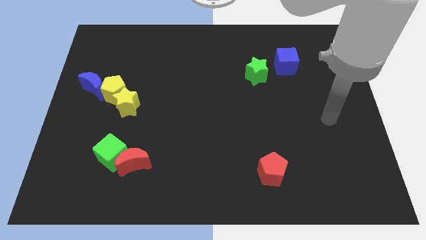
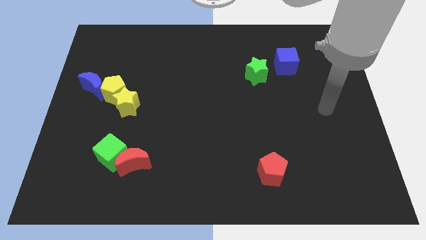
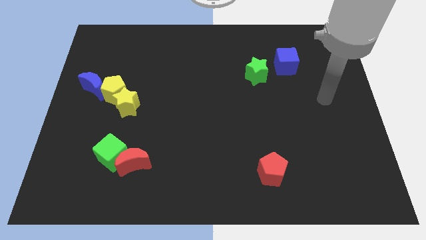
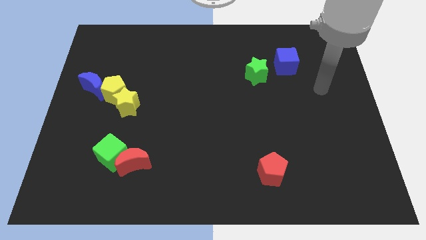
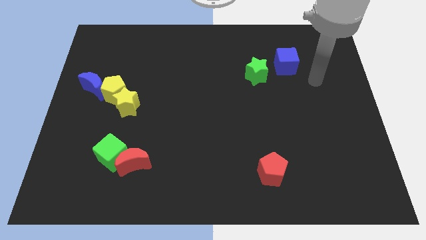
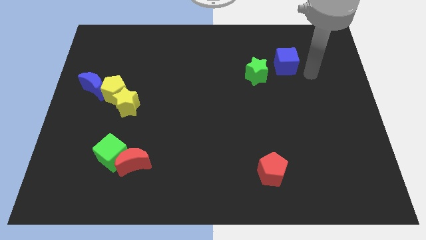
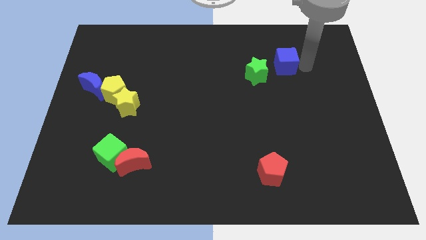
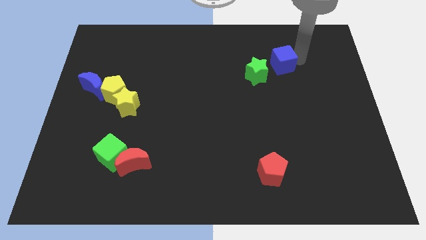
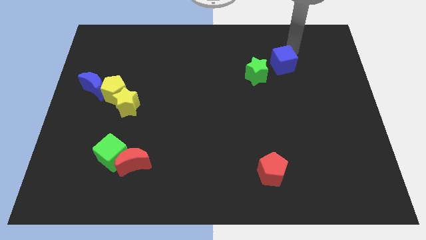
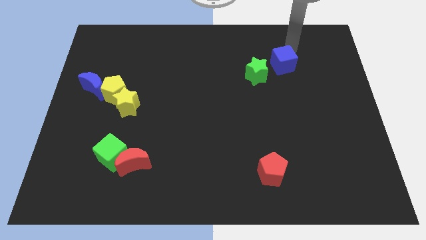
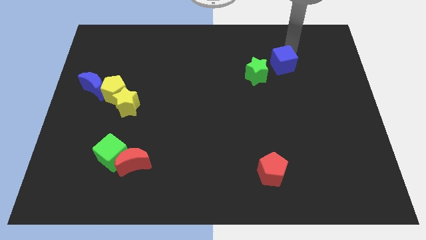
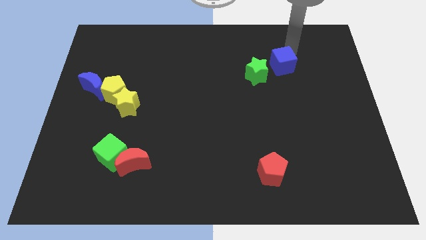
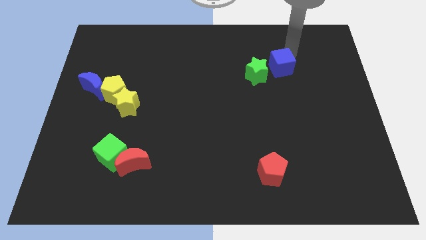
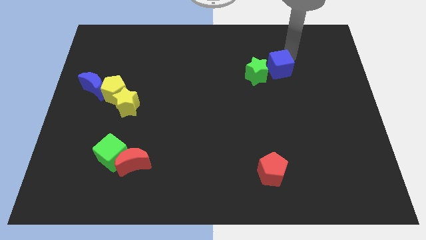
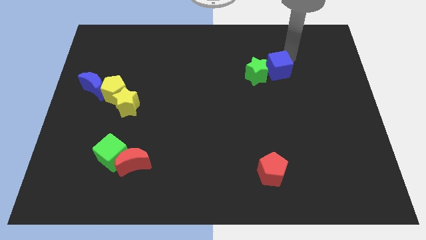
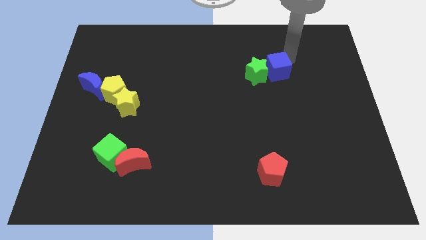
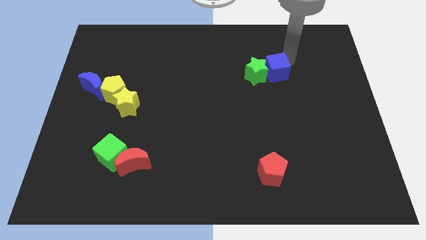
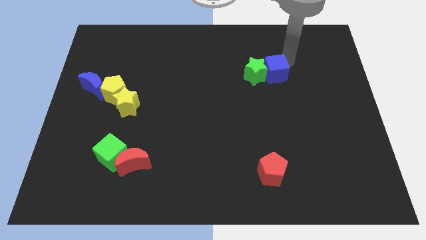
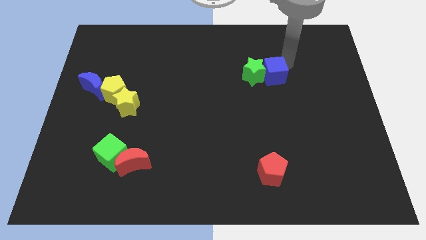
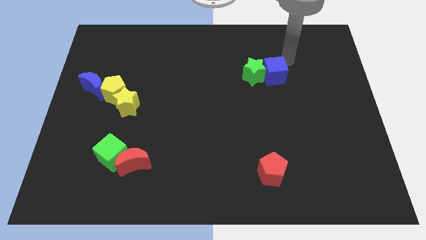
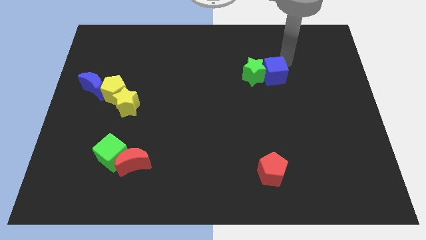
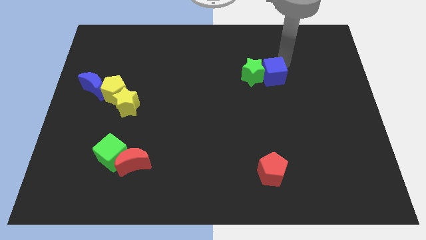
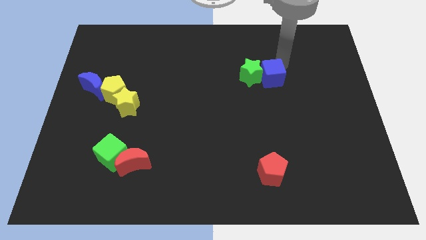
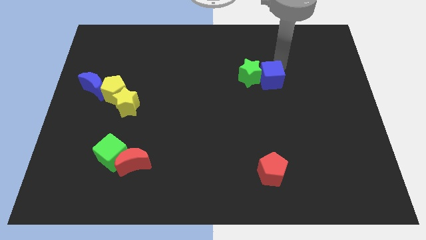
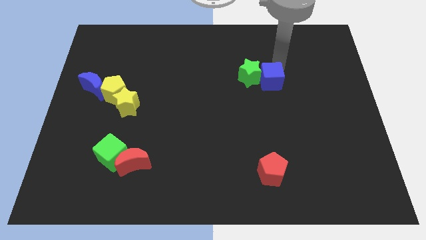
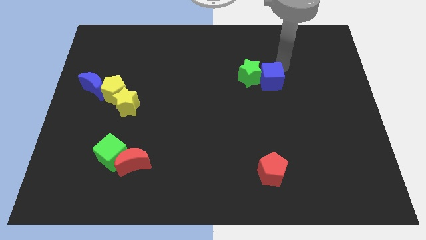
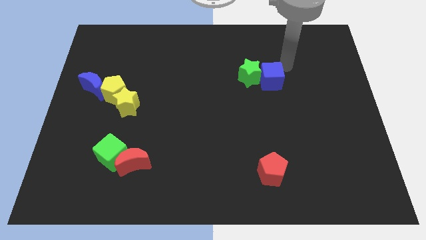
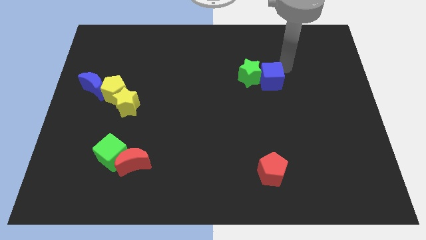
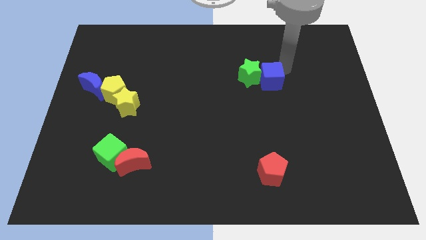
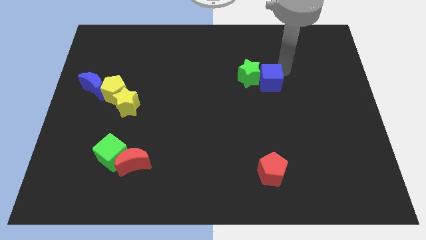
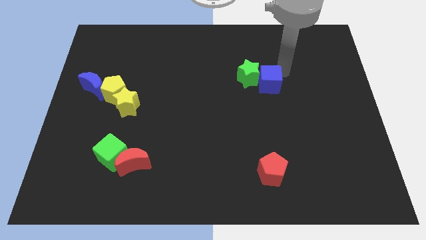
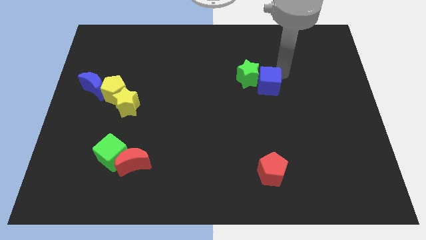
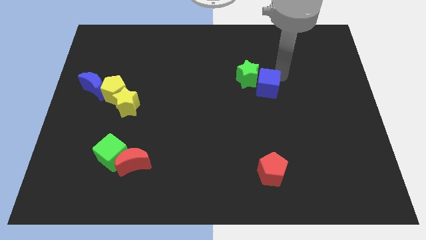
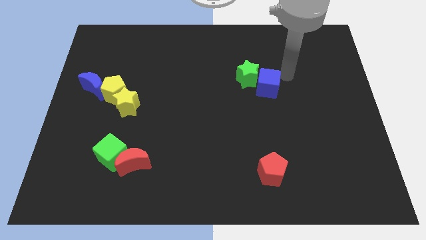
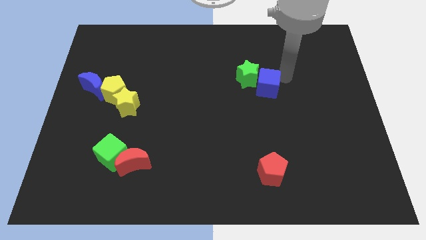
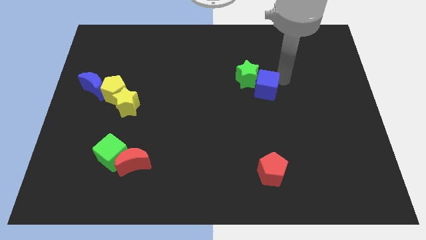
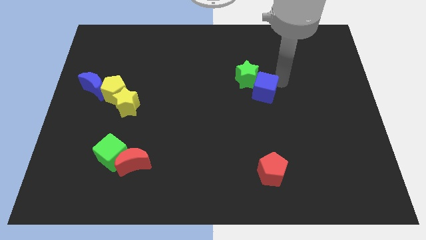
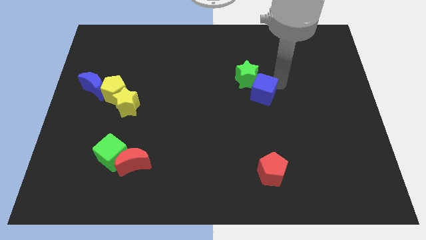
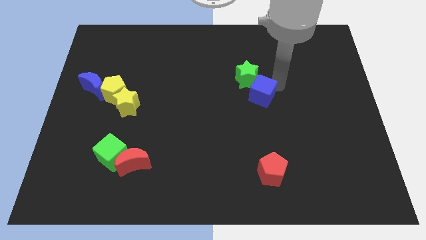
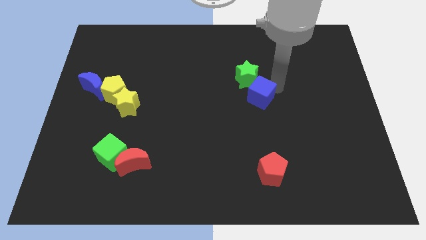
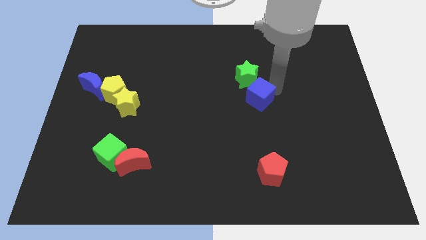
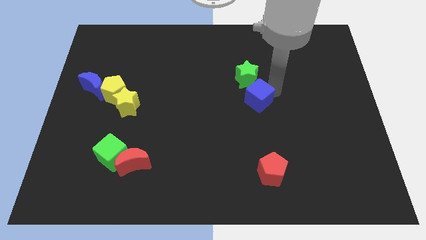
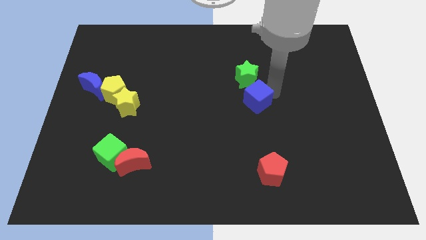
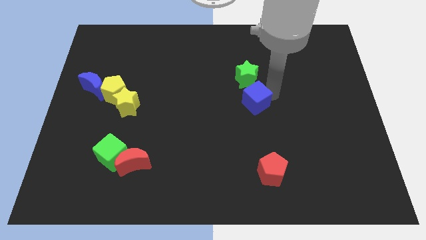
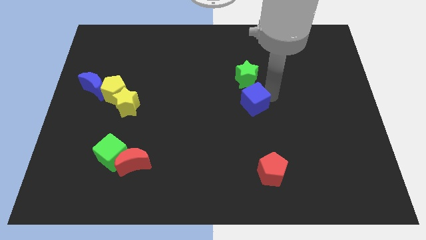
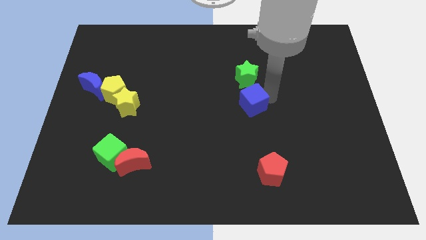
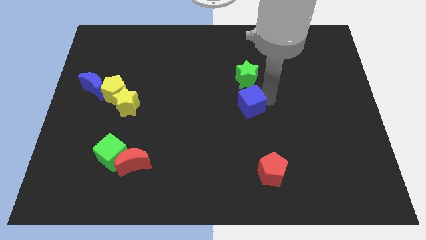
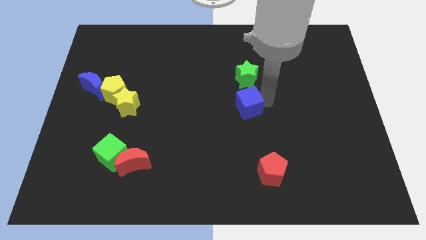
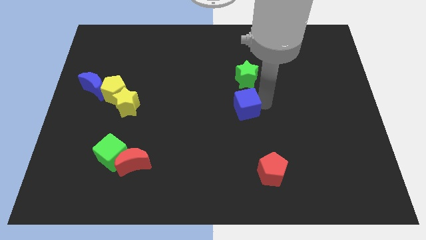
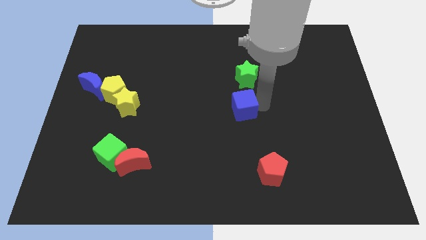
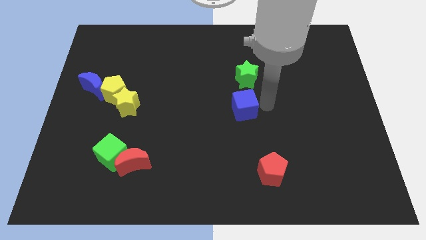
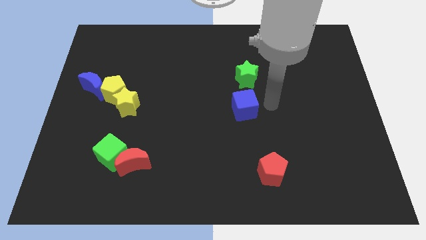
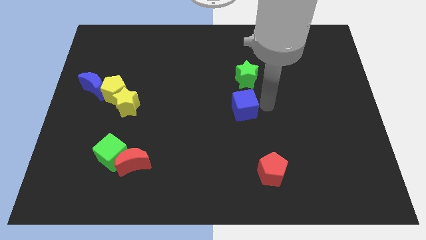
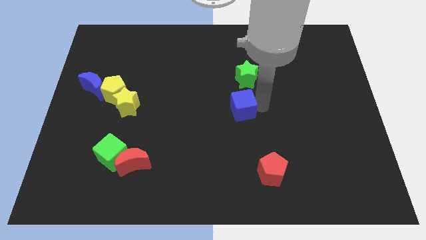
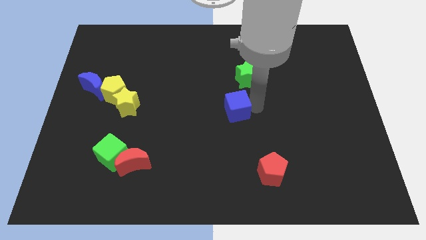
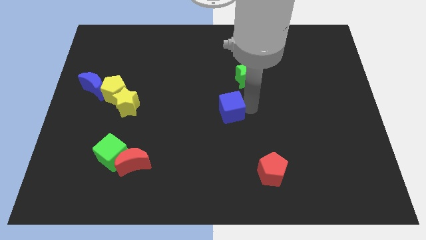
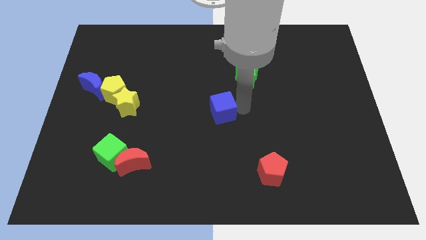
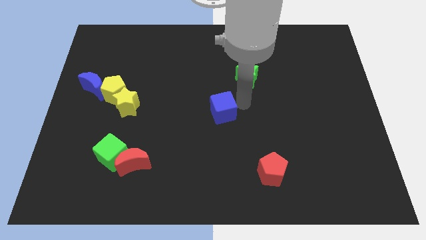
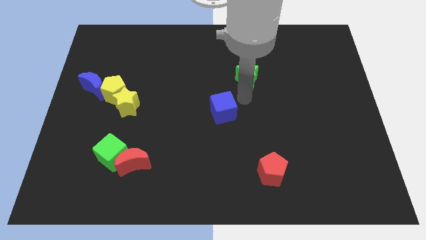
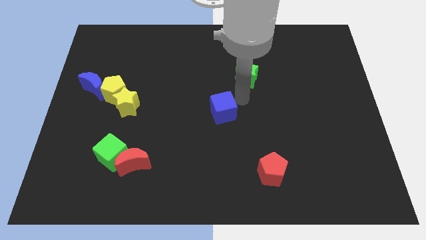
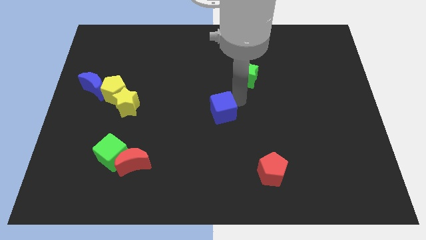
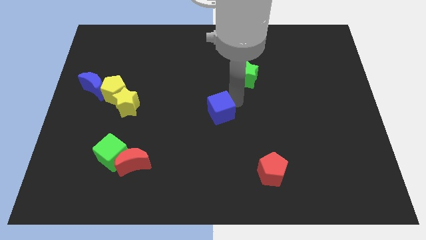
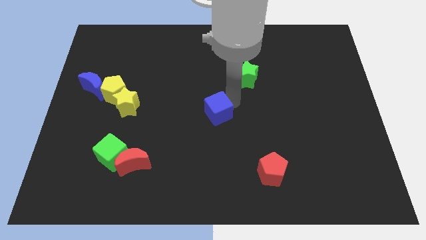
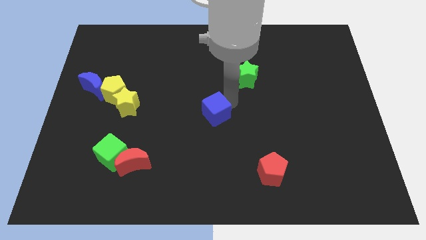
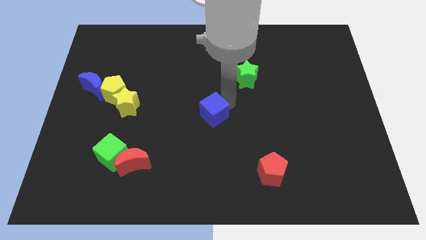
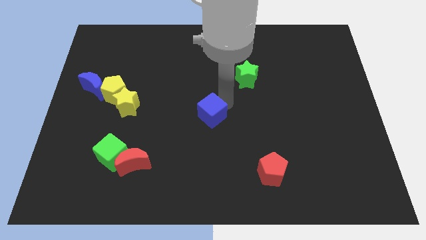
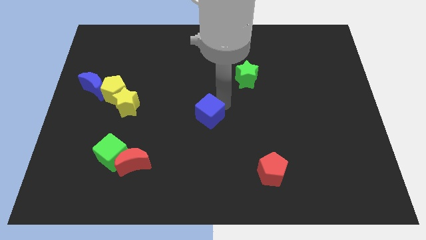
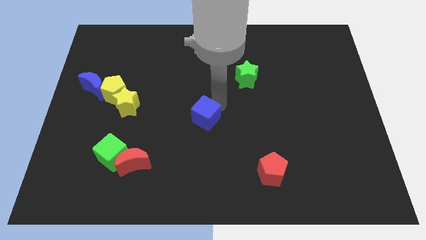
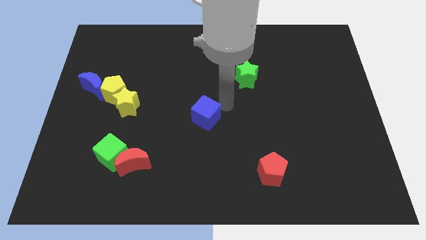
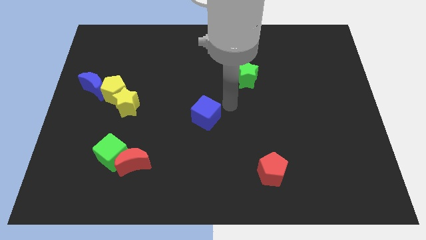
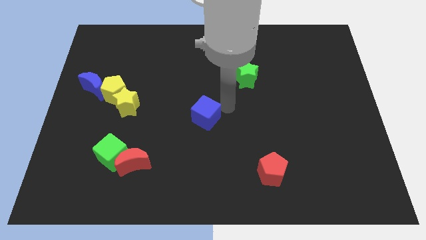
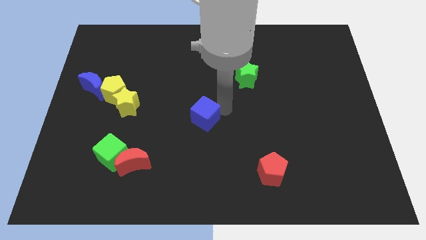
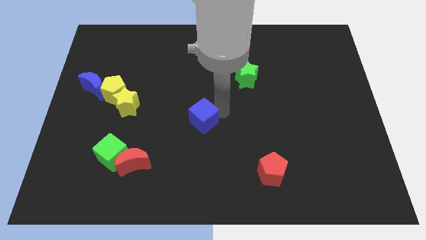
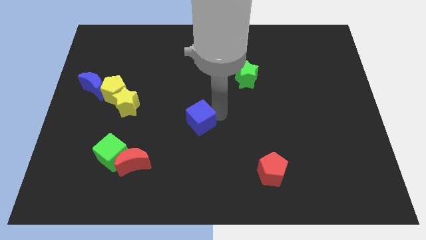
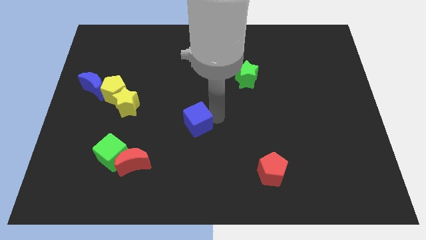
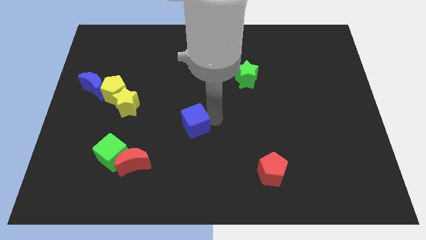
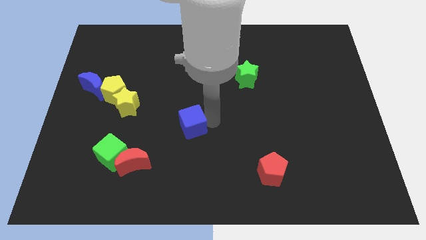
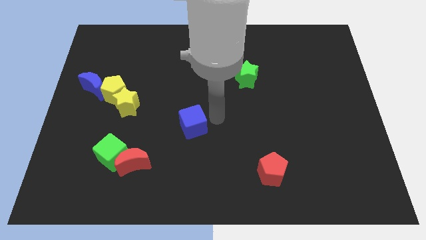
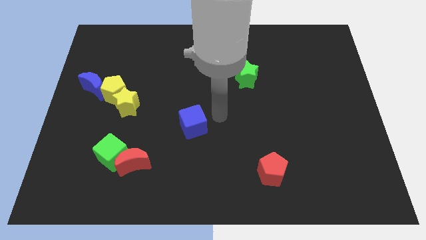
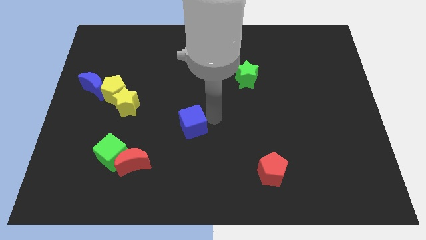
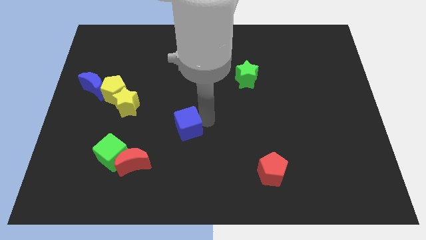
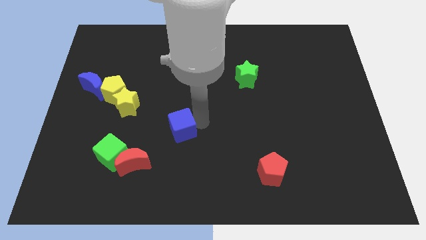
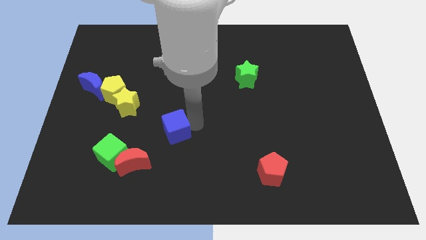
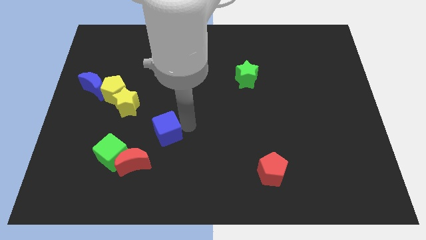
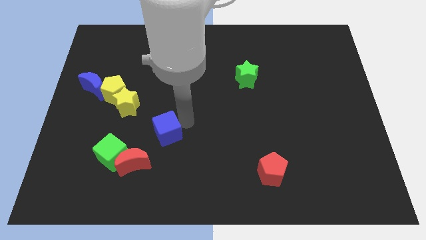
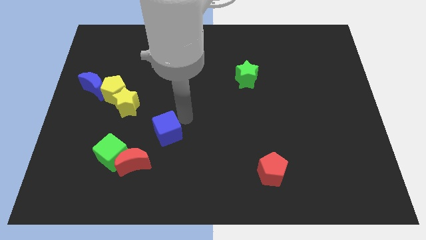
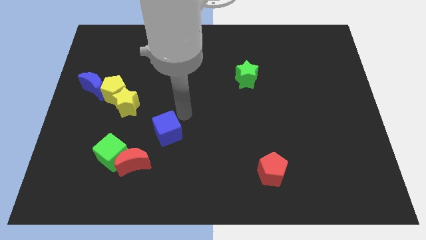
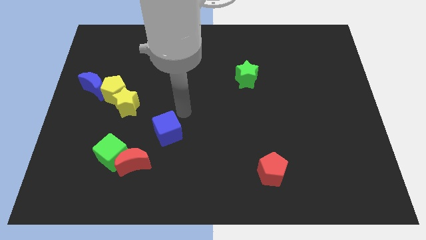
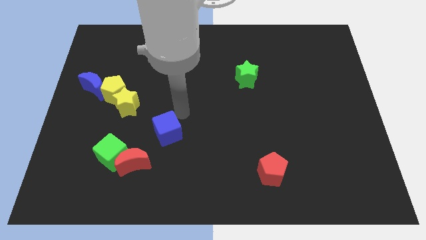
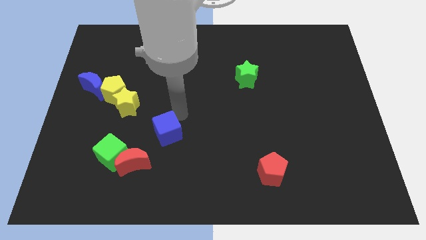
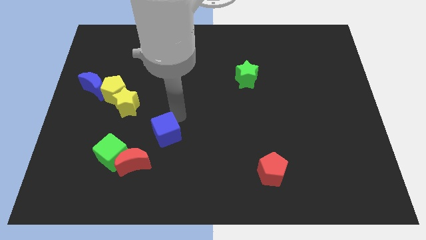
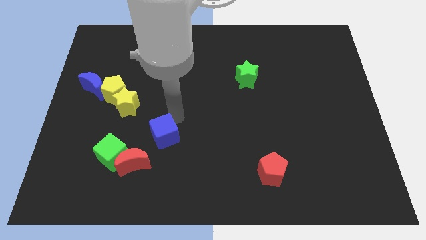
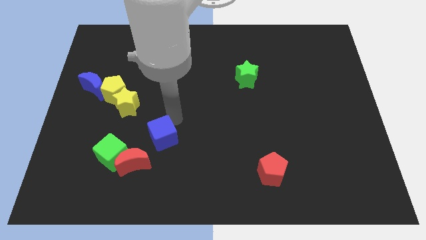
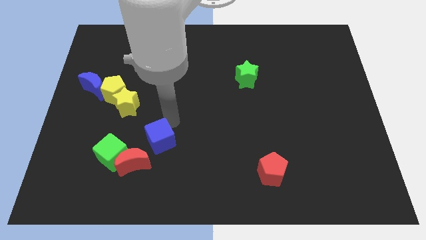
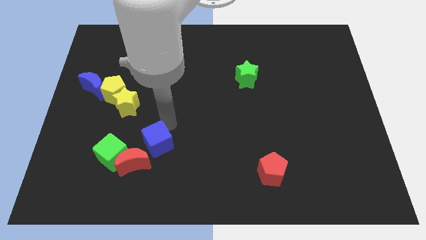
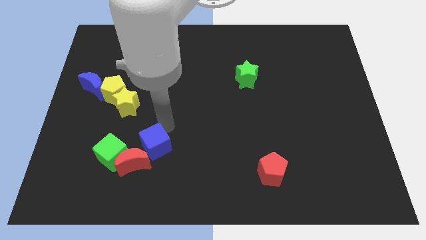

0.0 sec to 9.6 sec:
move the blue cube towards the red moon
